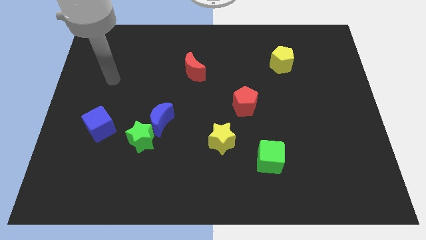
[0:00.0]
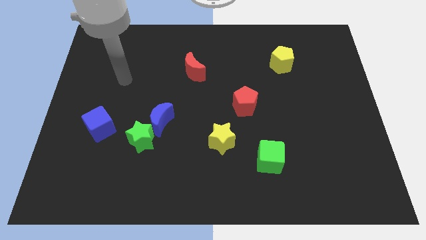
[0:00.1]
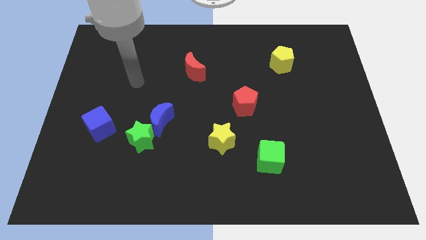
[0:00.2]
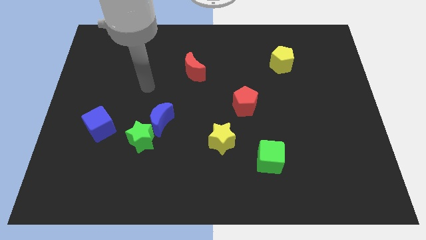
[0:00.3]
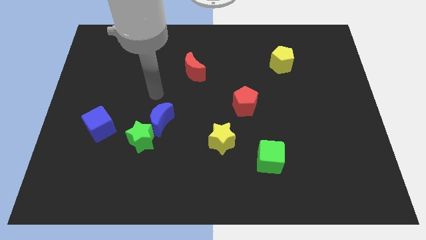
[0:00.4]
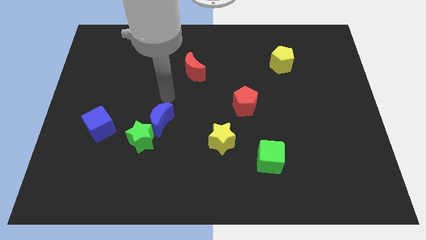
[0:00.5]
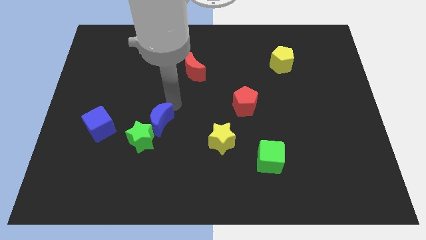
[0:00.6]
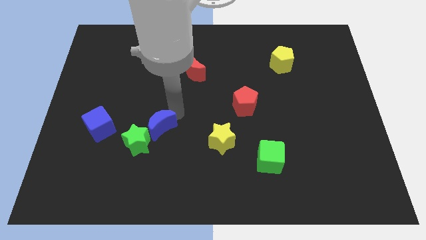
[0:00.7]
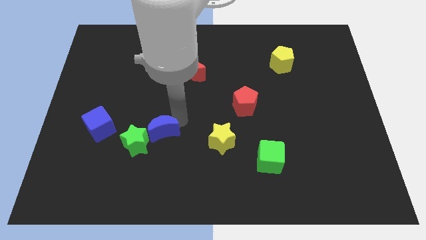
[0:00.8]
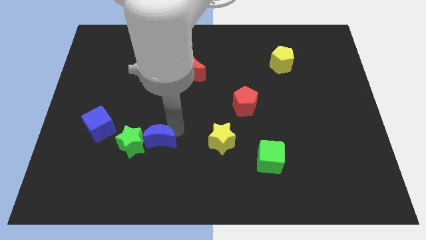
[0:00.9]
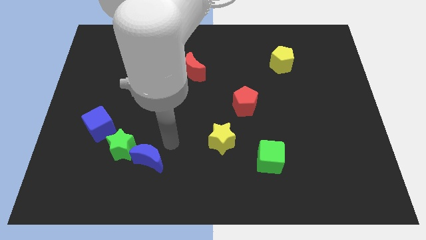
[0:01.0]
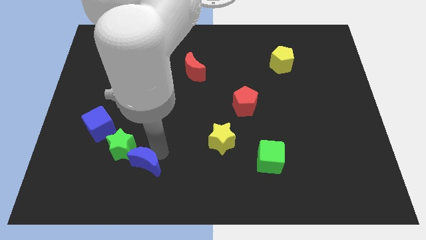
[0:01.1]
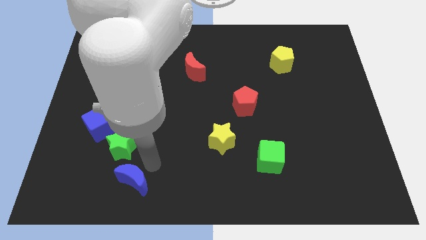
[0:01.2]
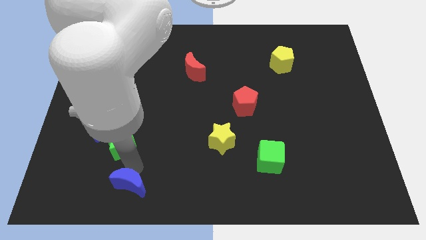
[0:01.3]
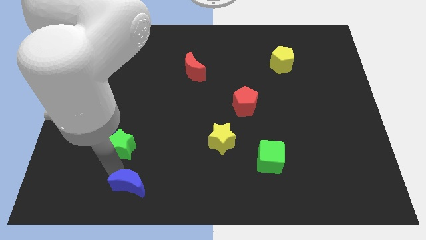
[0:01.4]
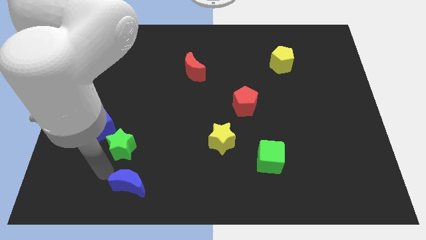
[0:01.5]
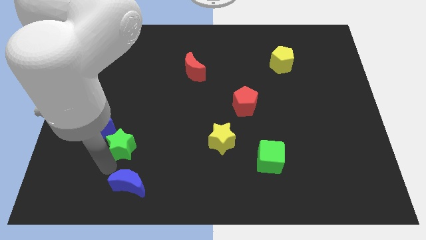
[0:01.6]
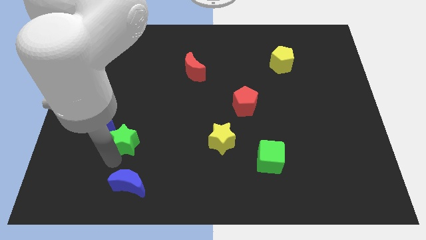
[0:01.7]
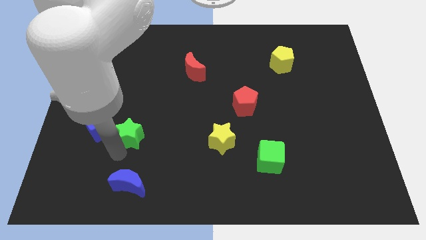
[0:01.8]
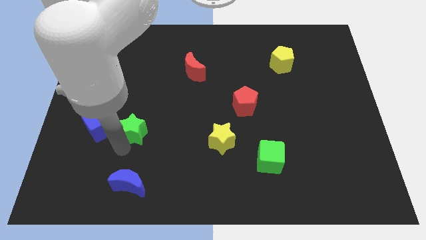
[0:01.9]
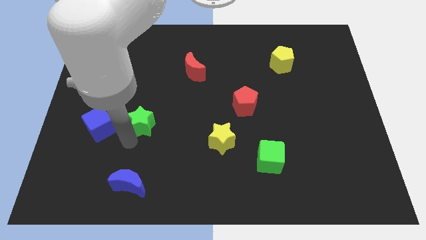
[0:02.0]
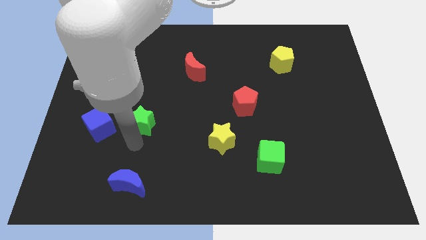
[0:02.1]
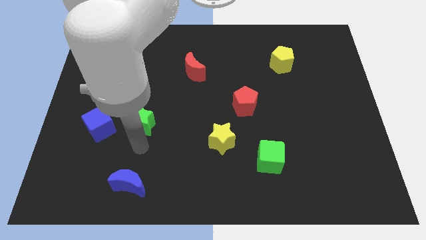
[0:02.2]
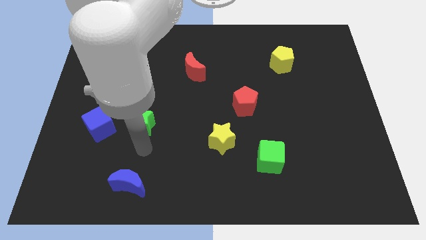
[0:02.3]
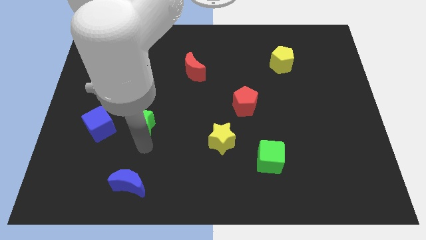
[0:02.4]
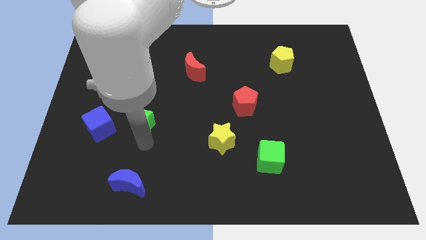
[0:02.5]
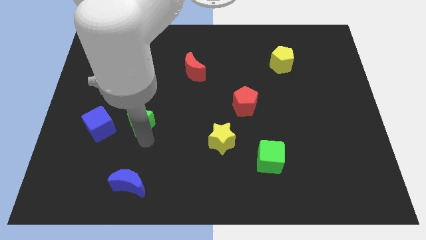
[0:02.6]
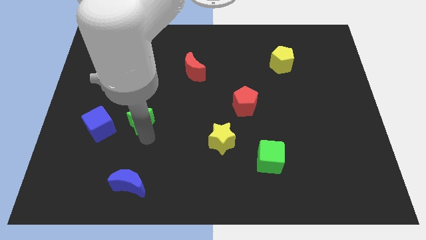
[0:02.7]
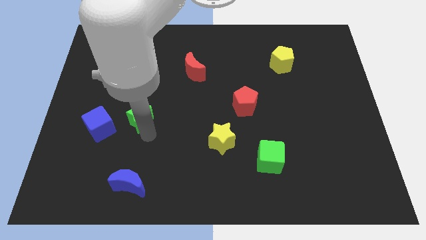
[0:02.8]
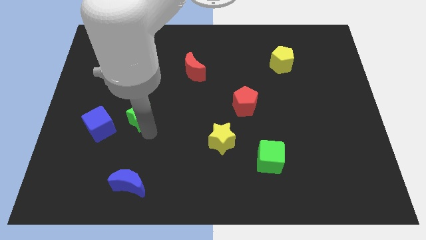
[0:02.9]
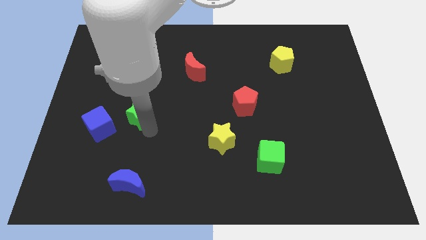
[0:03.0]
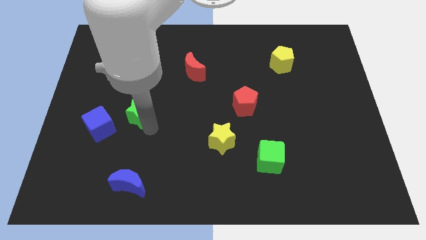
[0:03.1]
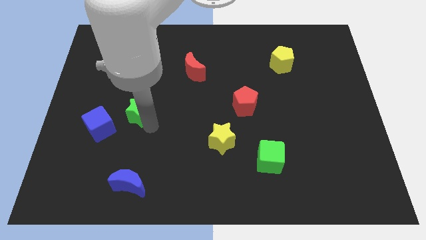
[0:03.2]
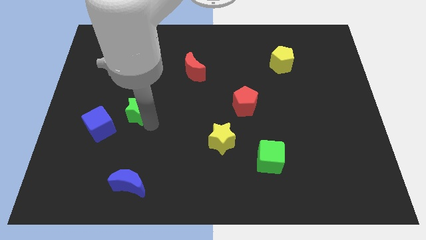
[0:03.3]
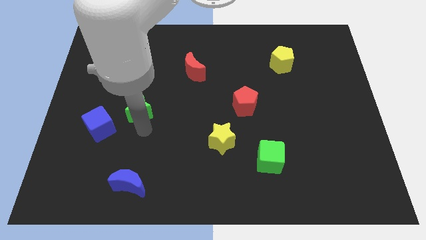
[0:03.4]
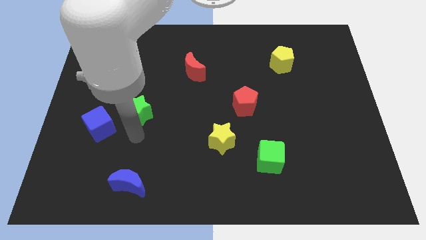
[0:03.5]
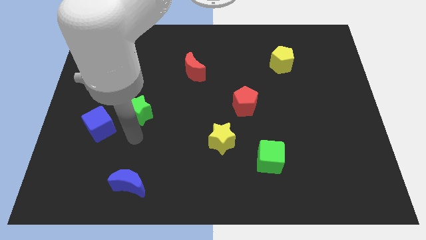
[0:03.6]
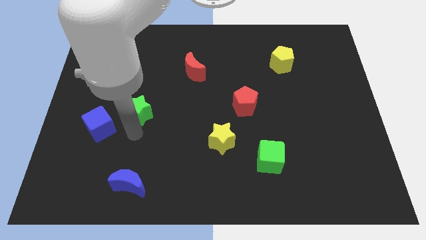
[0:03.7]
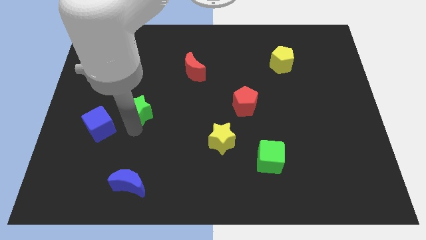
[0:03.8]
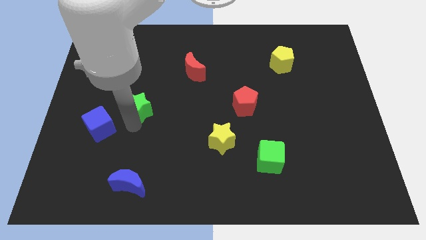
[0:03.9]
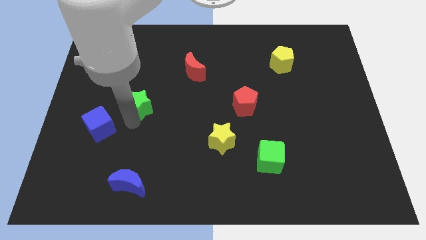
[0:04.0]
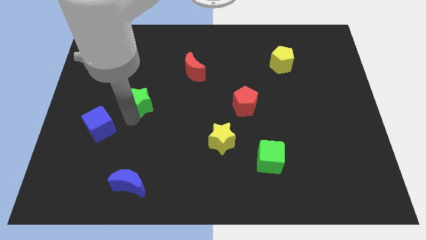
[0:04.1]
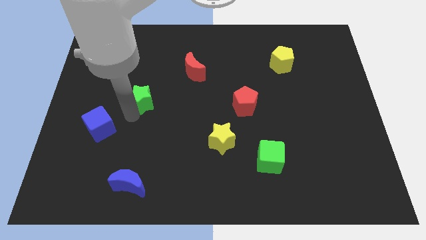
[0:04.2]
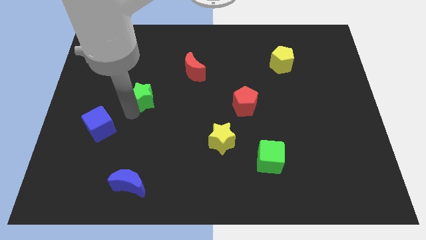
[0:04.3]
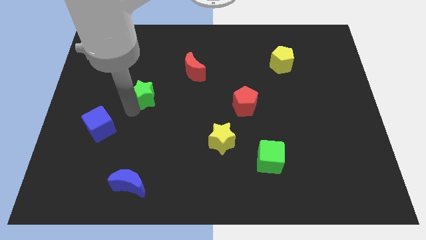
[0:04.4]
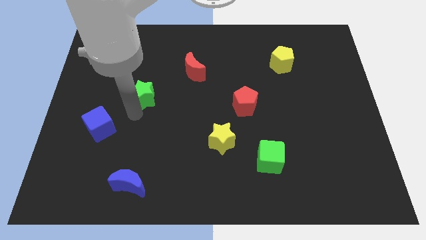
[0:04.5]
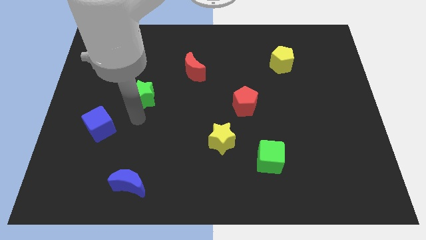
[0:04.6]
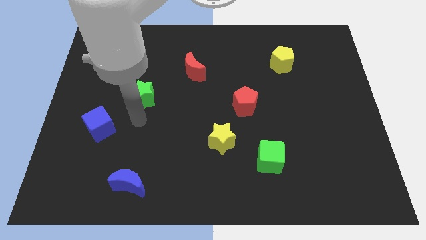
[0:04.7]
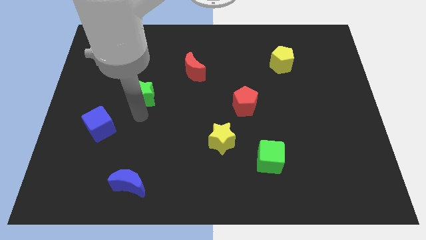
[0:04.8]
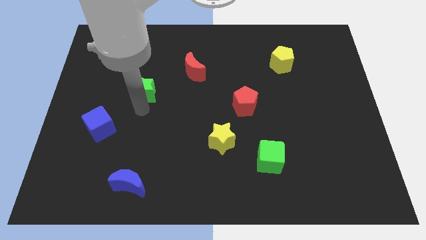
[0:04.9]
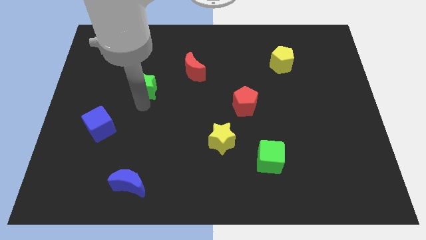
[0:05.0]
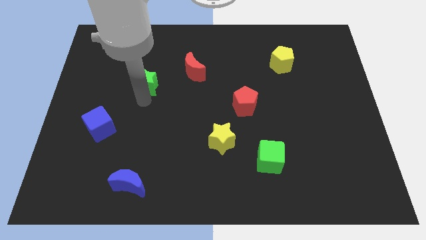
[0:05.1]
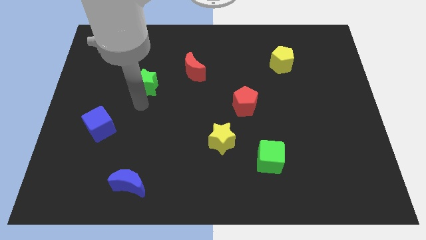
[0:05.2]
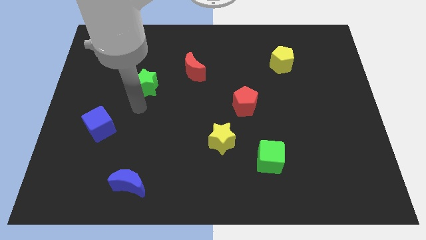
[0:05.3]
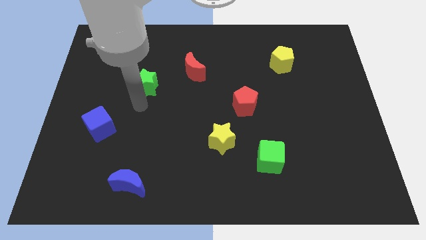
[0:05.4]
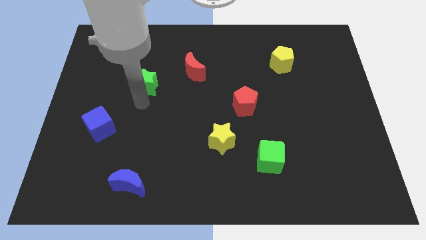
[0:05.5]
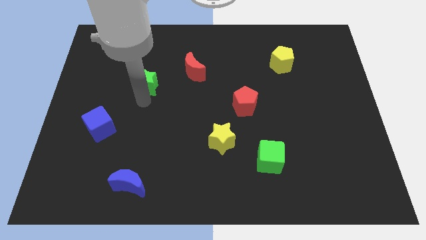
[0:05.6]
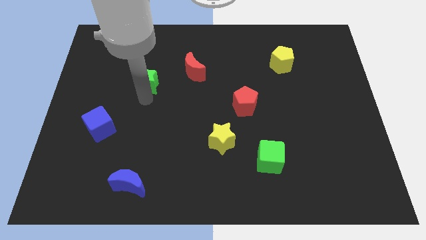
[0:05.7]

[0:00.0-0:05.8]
move the green star to the left side of the red moon

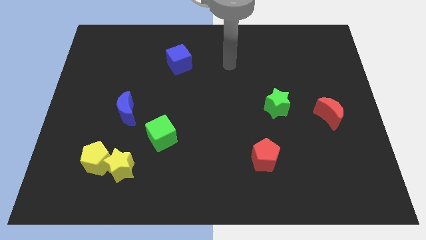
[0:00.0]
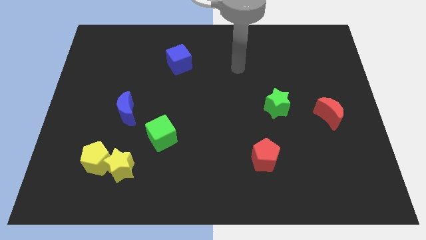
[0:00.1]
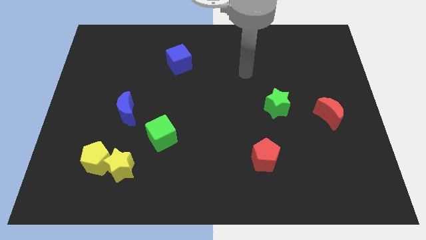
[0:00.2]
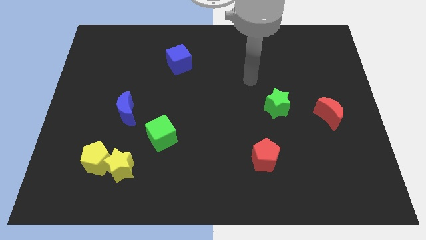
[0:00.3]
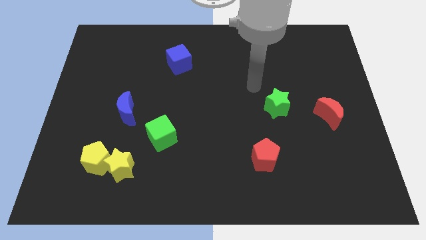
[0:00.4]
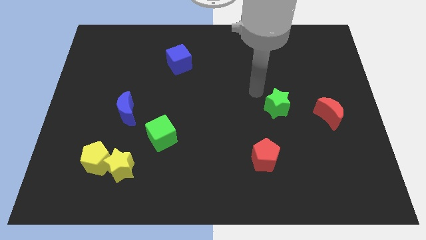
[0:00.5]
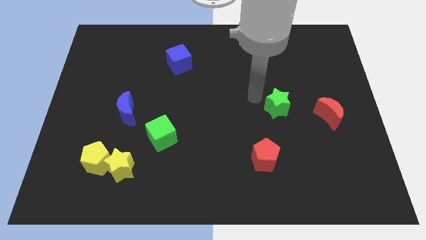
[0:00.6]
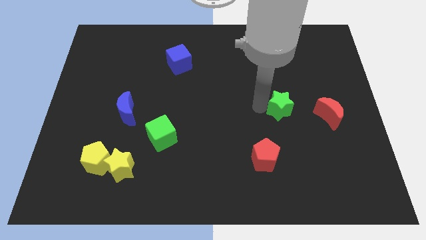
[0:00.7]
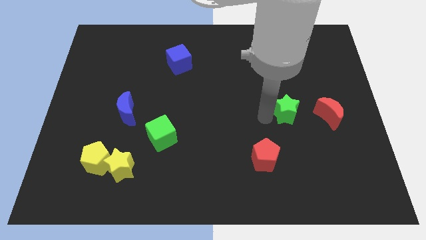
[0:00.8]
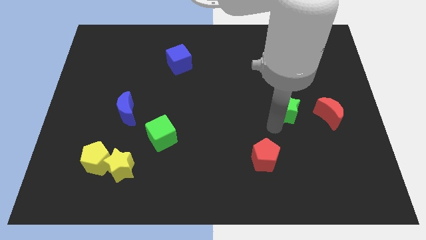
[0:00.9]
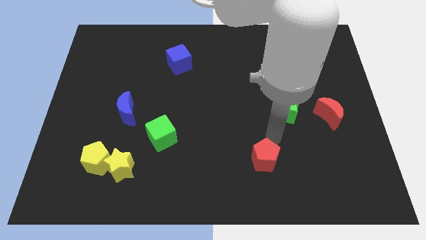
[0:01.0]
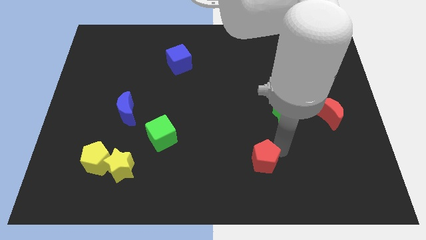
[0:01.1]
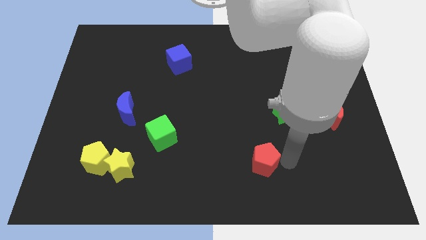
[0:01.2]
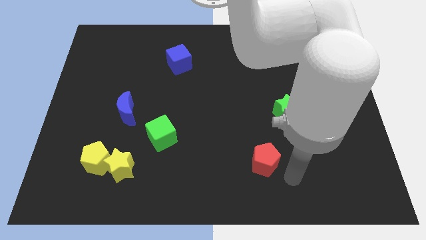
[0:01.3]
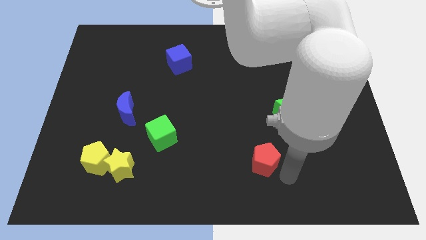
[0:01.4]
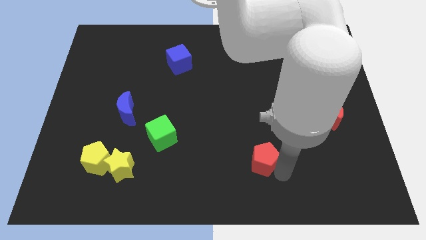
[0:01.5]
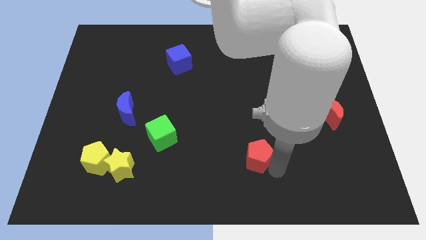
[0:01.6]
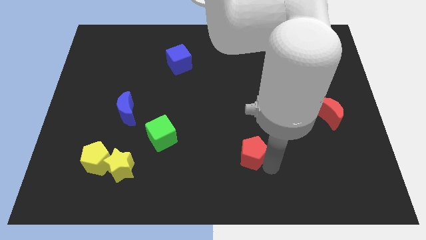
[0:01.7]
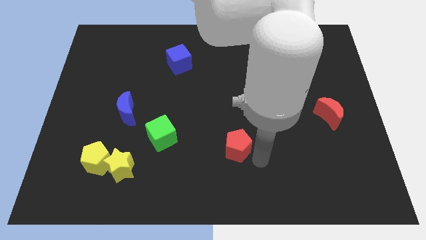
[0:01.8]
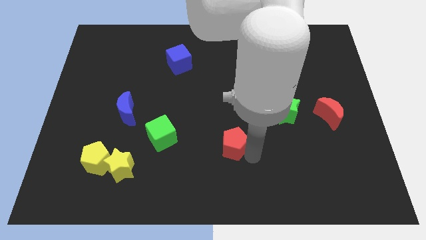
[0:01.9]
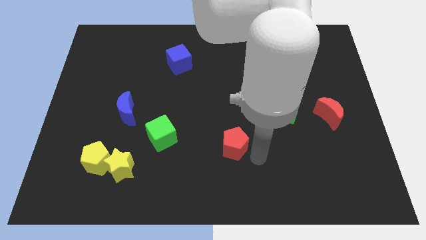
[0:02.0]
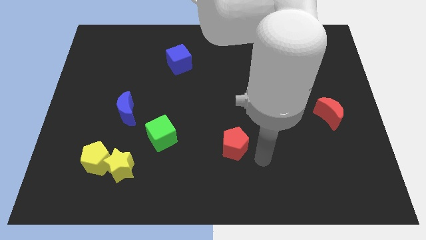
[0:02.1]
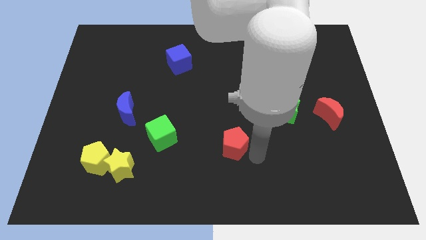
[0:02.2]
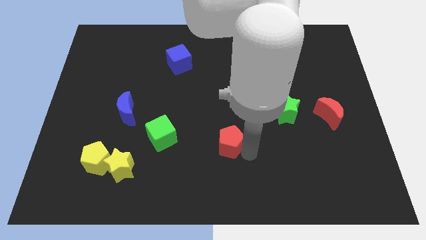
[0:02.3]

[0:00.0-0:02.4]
push the red pentagon just right of the green cube
